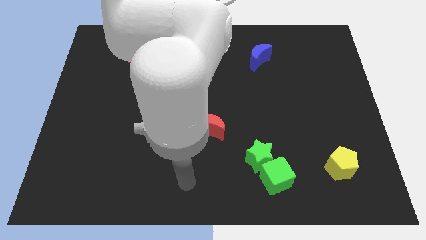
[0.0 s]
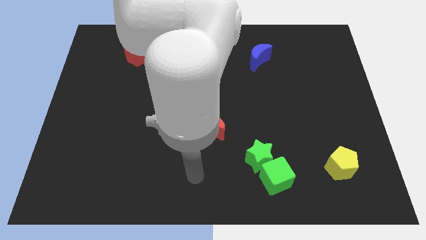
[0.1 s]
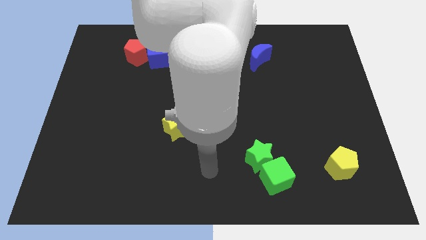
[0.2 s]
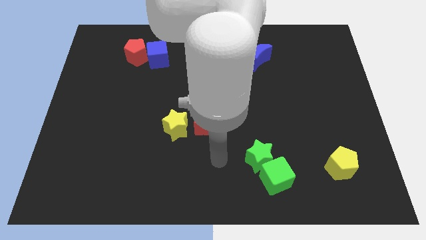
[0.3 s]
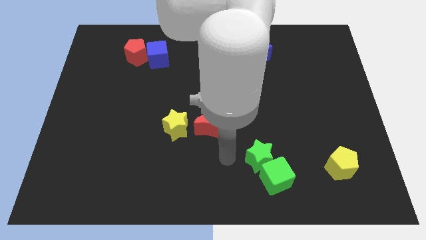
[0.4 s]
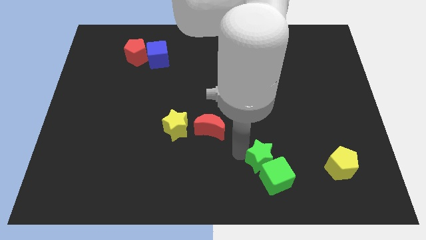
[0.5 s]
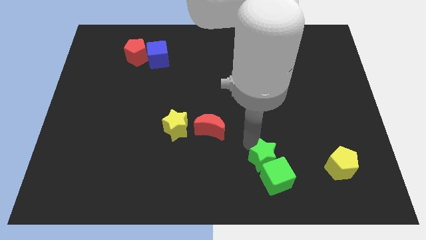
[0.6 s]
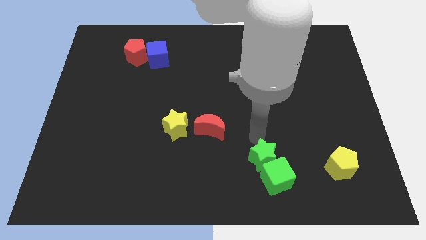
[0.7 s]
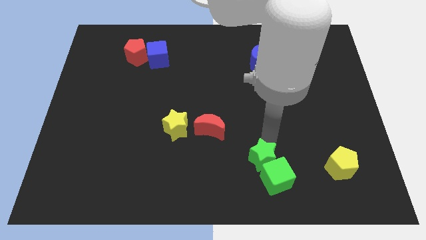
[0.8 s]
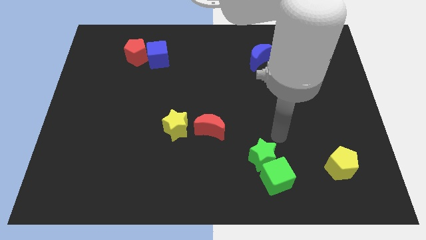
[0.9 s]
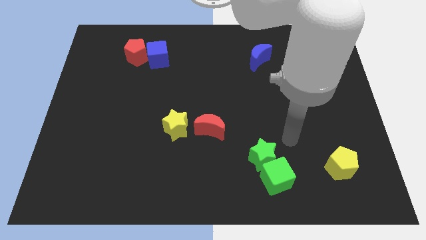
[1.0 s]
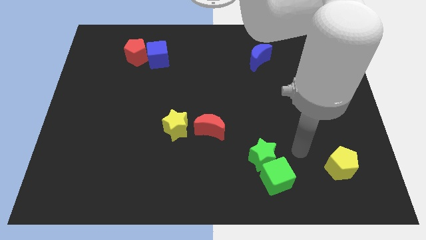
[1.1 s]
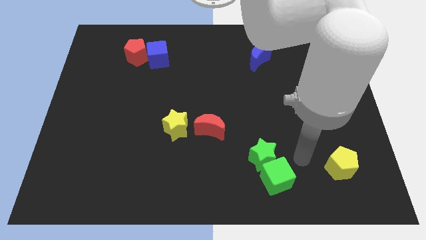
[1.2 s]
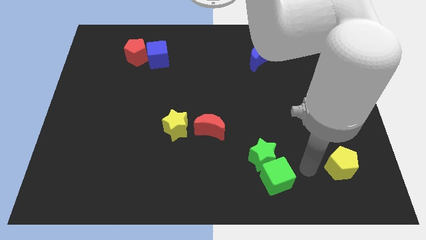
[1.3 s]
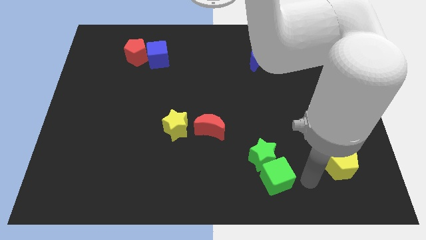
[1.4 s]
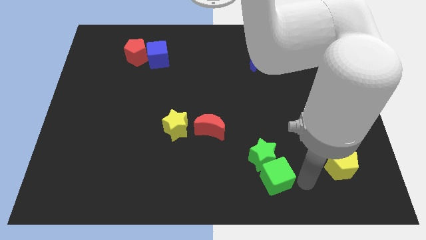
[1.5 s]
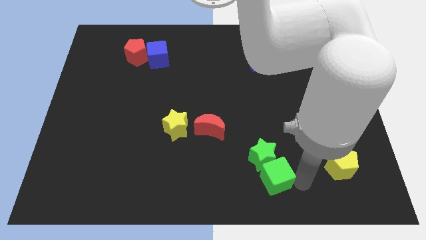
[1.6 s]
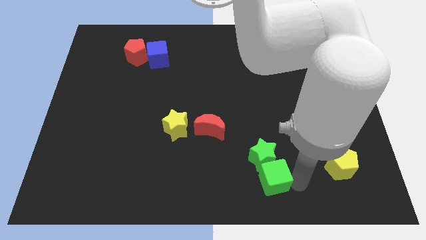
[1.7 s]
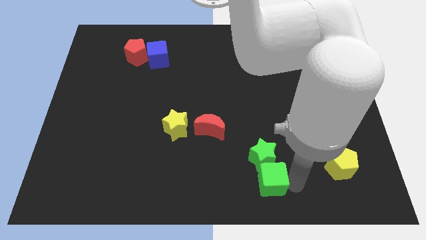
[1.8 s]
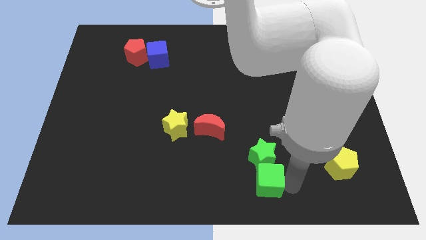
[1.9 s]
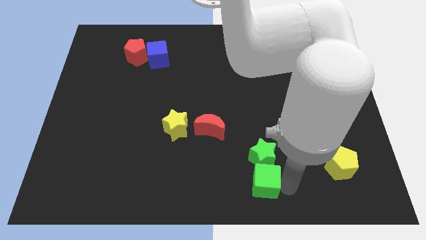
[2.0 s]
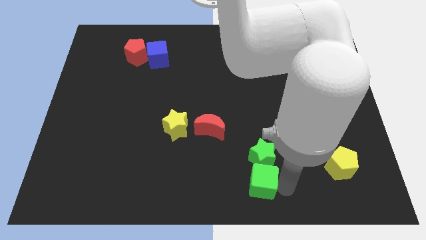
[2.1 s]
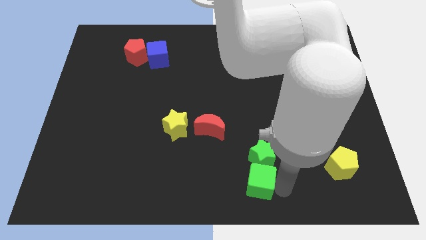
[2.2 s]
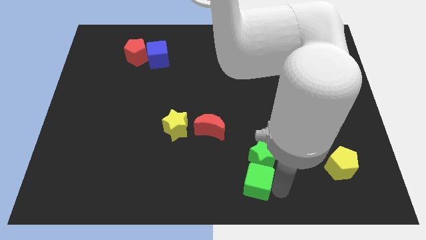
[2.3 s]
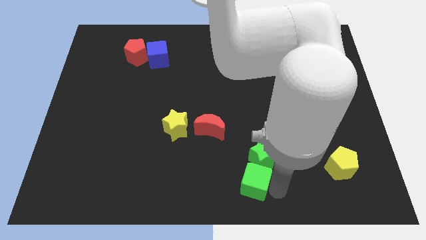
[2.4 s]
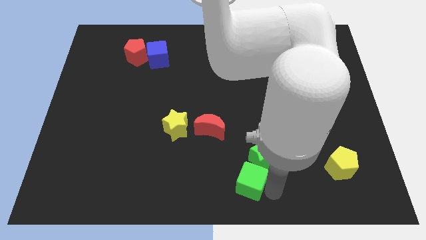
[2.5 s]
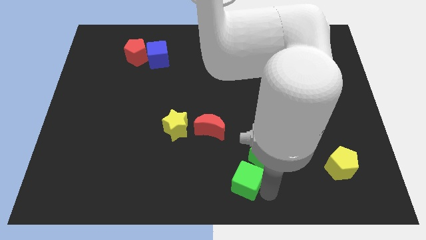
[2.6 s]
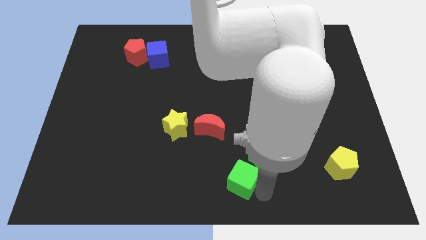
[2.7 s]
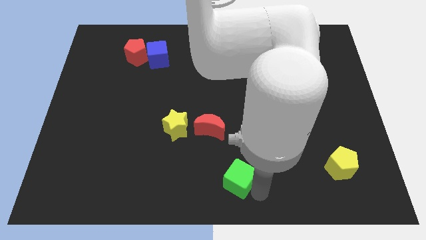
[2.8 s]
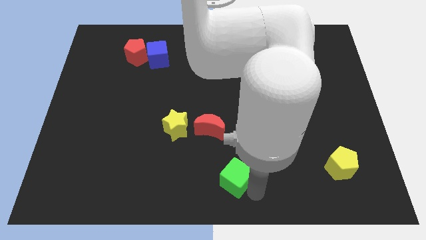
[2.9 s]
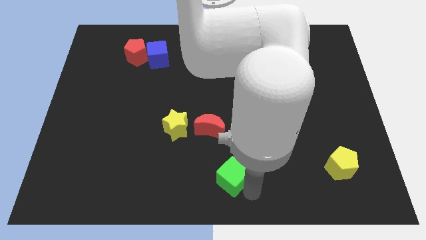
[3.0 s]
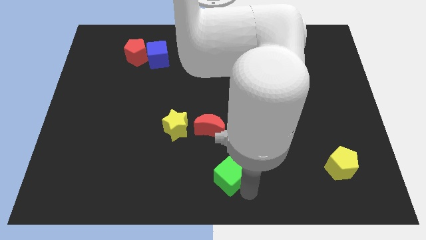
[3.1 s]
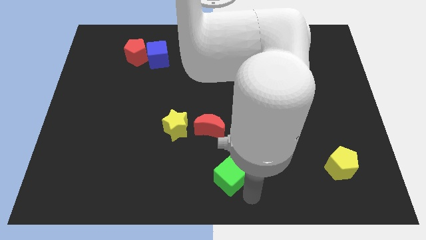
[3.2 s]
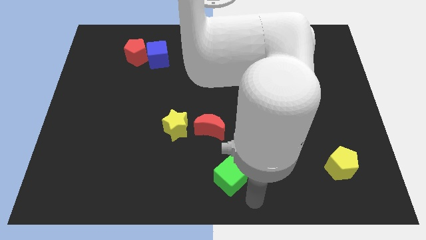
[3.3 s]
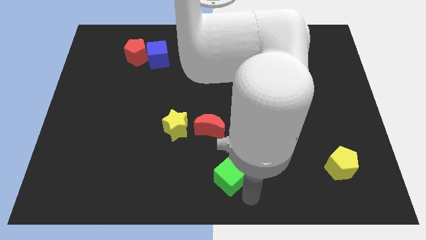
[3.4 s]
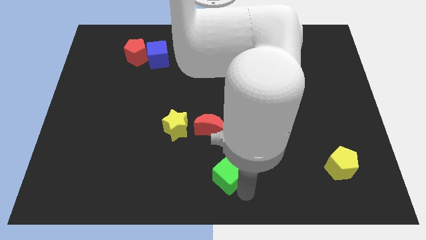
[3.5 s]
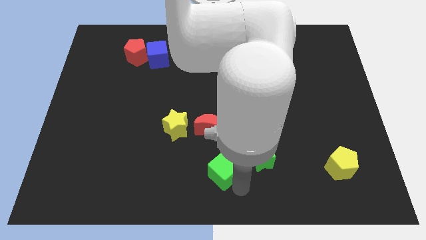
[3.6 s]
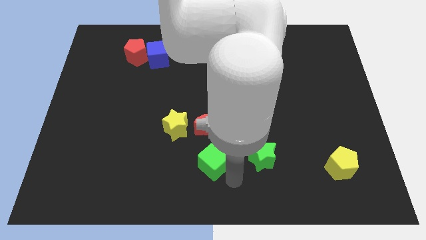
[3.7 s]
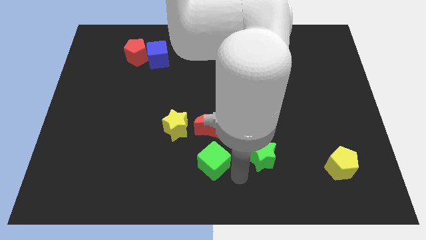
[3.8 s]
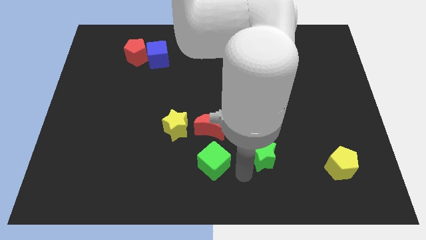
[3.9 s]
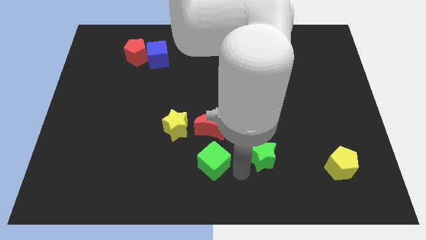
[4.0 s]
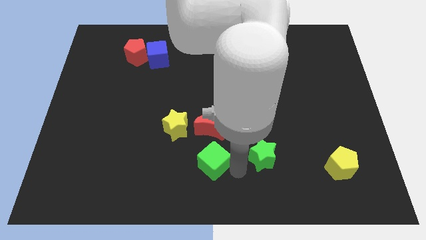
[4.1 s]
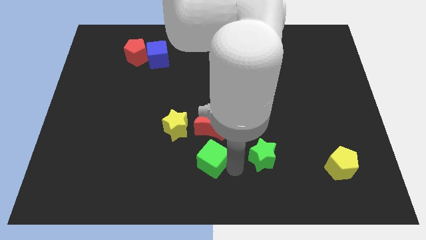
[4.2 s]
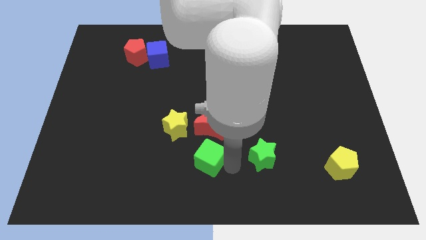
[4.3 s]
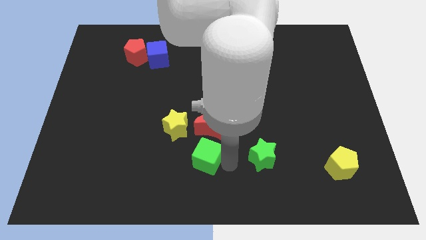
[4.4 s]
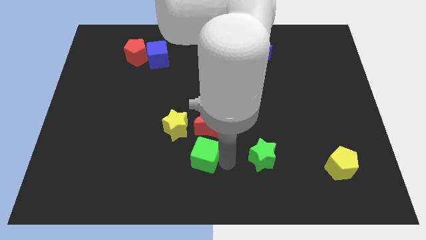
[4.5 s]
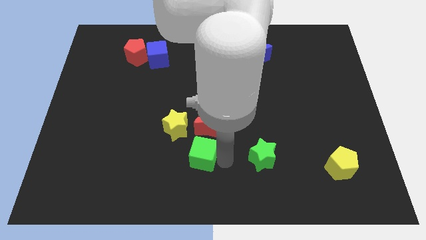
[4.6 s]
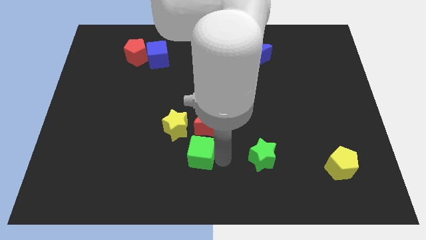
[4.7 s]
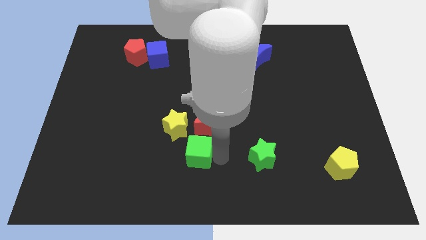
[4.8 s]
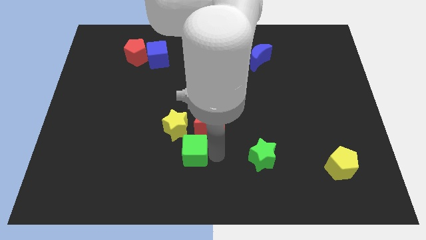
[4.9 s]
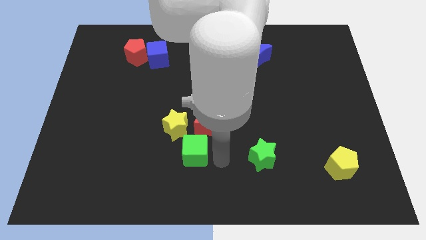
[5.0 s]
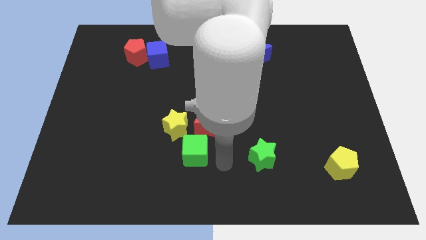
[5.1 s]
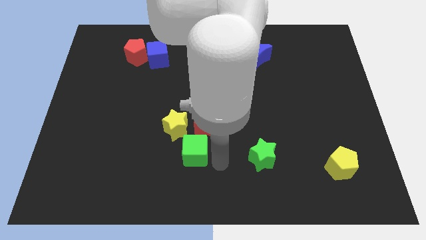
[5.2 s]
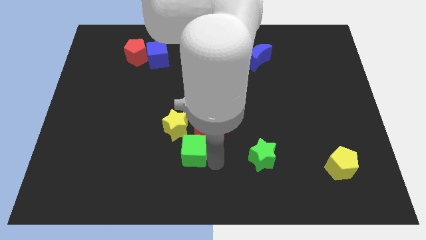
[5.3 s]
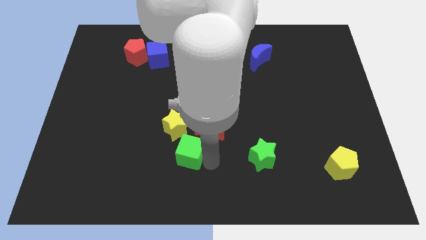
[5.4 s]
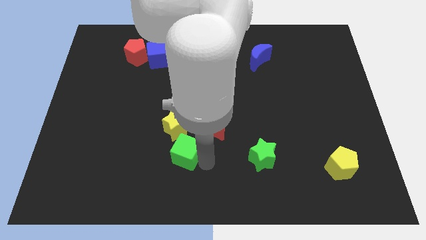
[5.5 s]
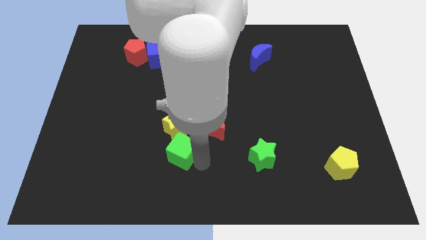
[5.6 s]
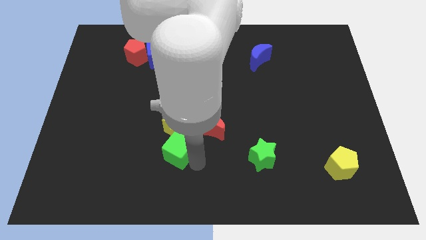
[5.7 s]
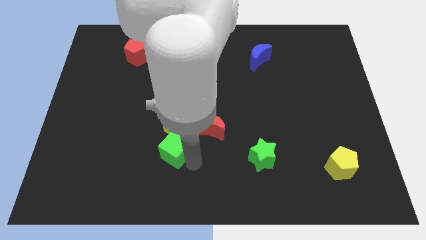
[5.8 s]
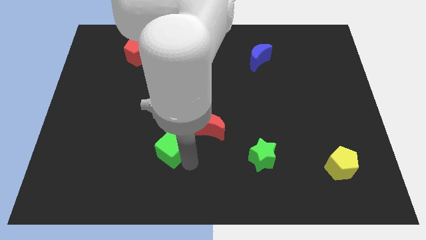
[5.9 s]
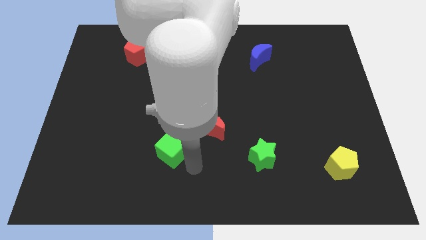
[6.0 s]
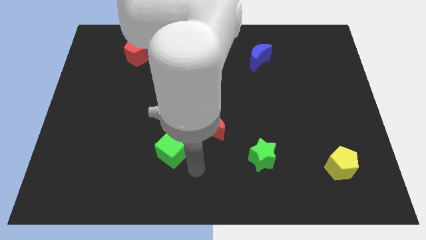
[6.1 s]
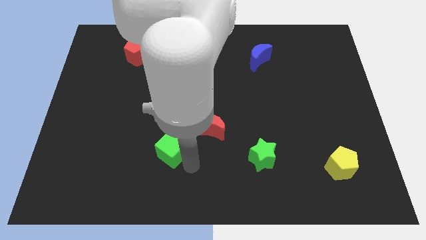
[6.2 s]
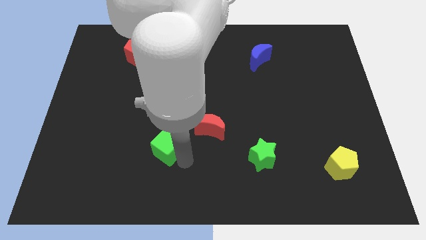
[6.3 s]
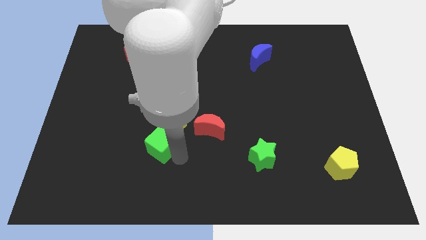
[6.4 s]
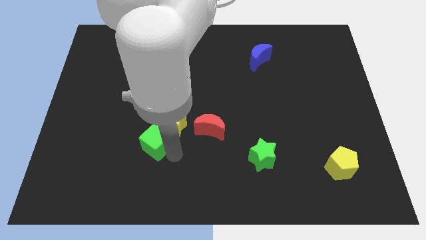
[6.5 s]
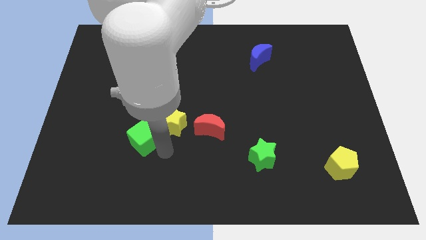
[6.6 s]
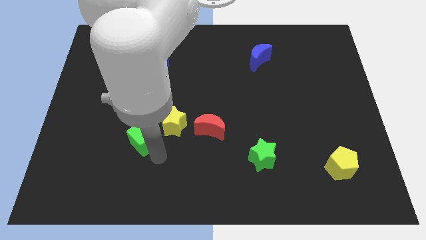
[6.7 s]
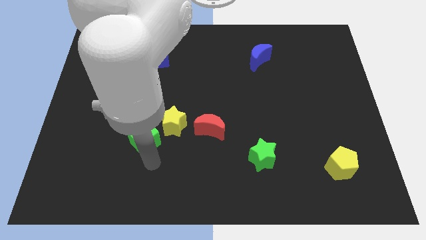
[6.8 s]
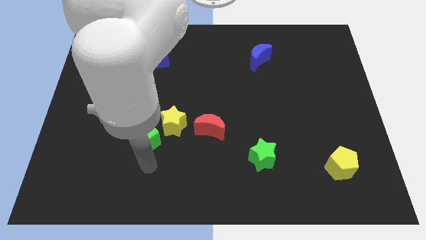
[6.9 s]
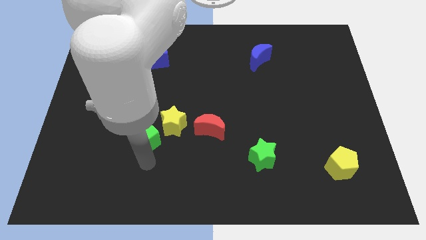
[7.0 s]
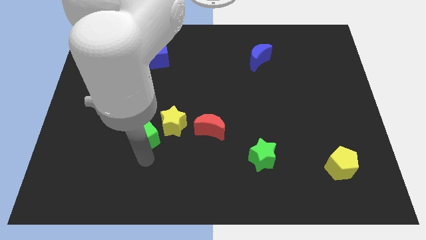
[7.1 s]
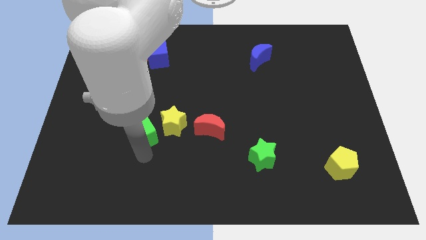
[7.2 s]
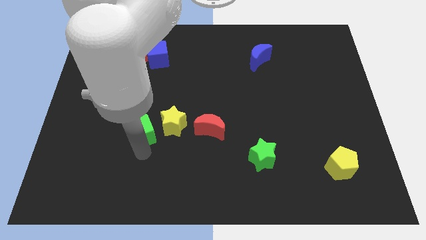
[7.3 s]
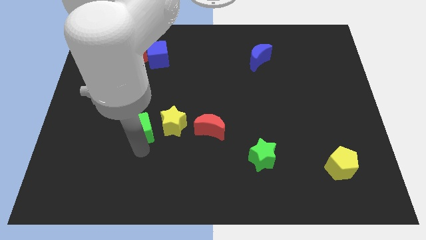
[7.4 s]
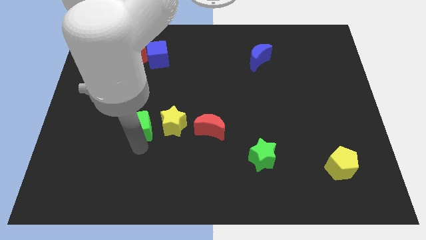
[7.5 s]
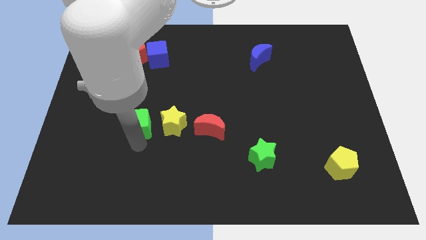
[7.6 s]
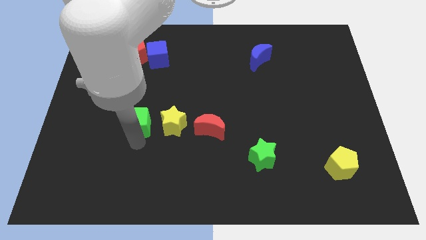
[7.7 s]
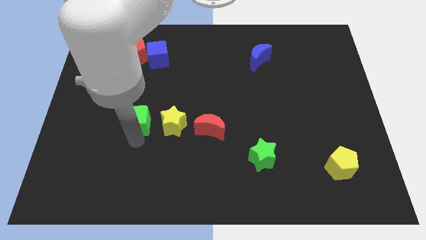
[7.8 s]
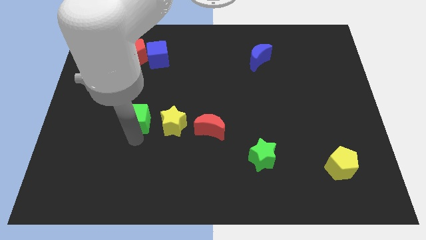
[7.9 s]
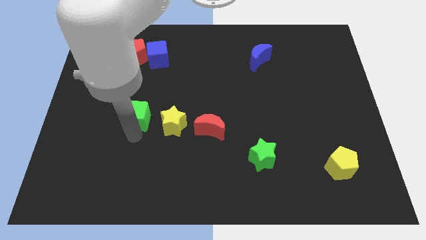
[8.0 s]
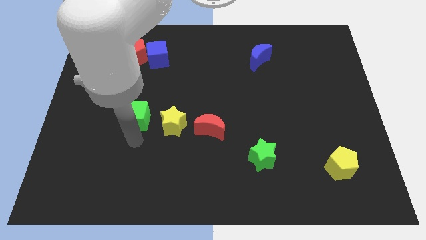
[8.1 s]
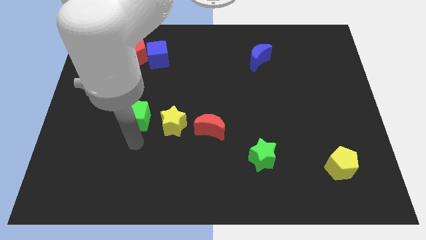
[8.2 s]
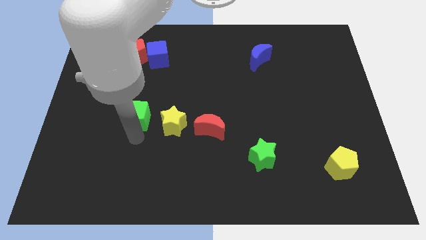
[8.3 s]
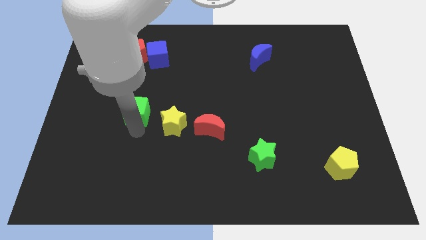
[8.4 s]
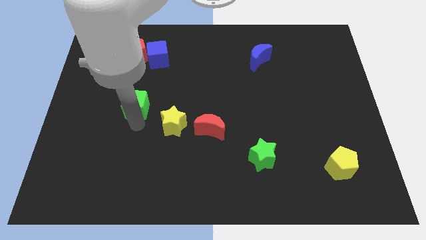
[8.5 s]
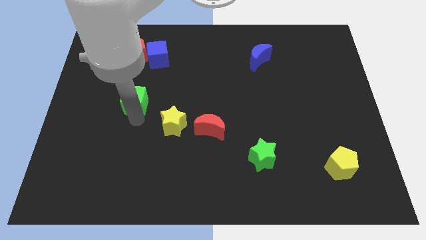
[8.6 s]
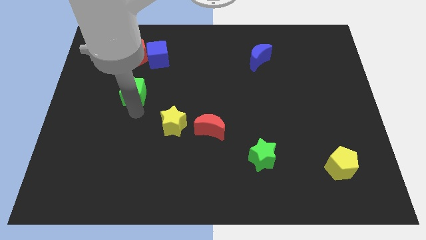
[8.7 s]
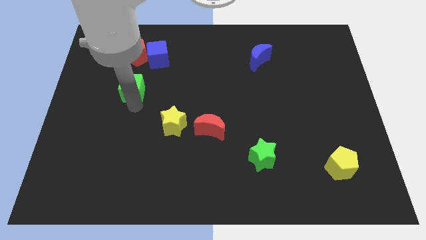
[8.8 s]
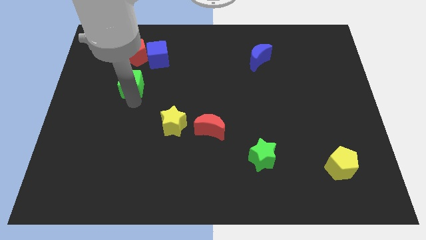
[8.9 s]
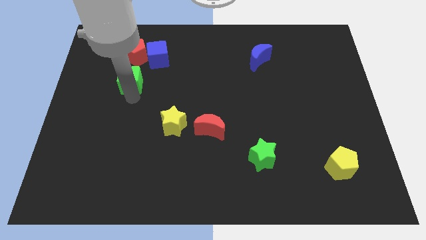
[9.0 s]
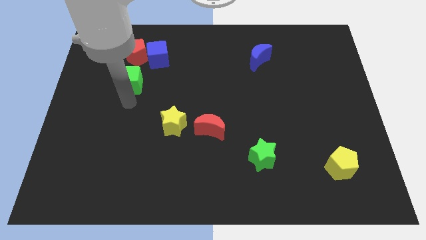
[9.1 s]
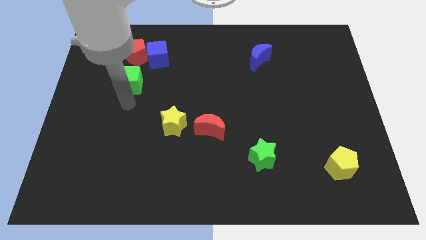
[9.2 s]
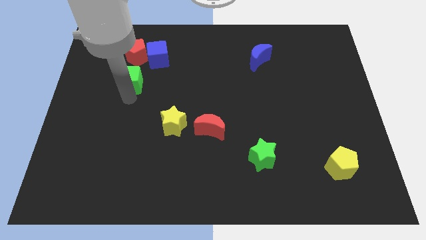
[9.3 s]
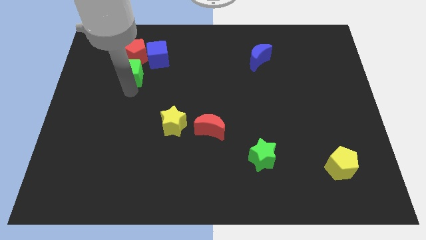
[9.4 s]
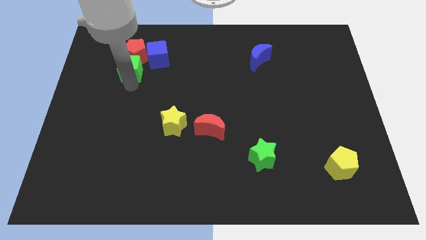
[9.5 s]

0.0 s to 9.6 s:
move the green cube close to the red pentagon
